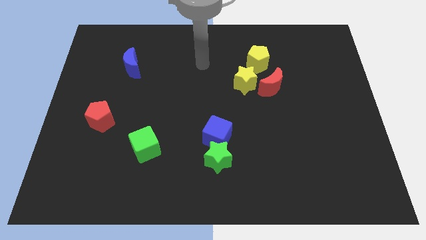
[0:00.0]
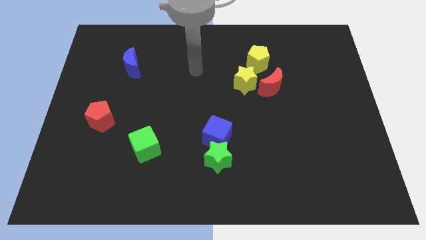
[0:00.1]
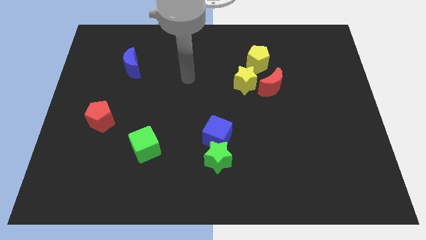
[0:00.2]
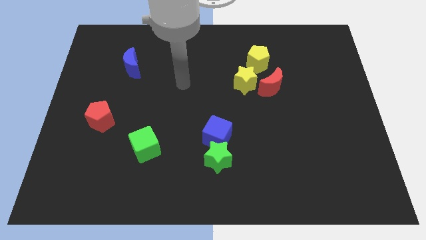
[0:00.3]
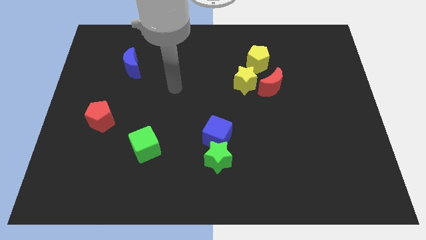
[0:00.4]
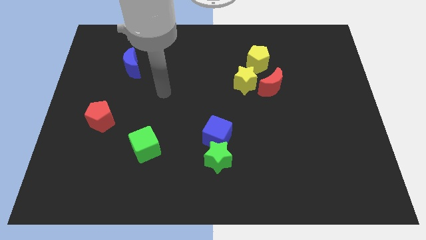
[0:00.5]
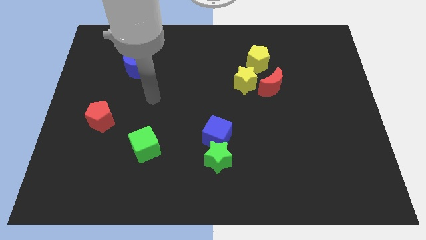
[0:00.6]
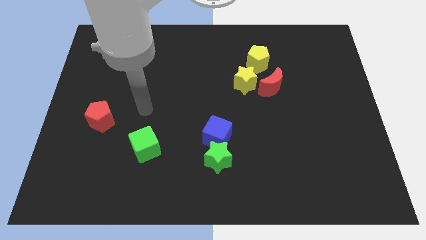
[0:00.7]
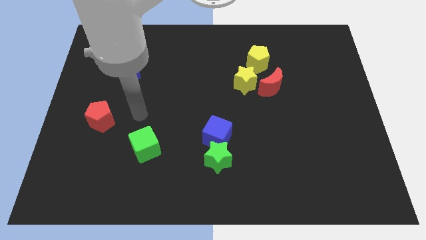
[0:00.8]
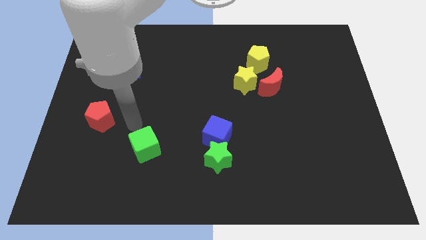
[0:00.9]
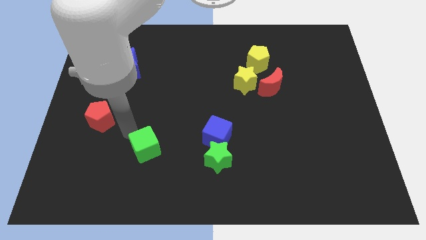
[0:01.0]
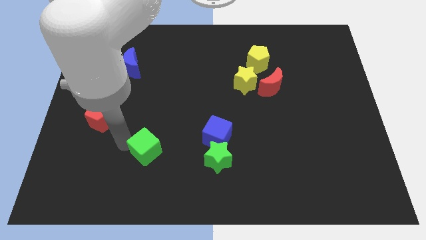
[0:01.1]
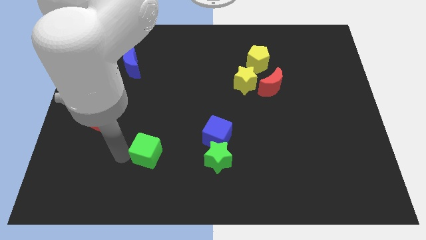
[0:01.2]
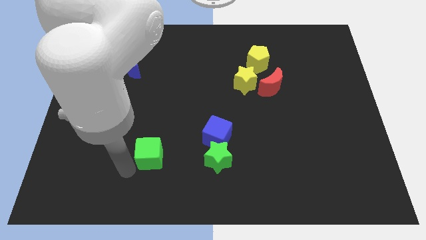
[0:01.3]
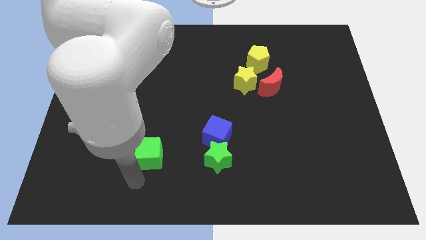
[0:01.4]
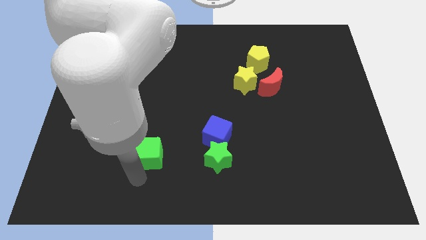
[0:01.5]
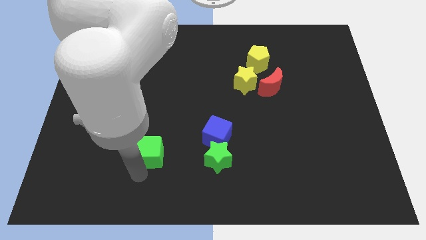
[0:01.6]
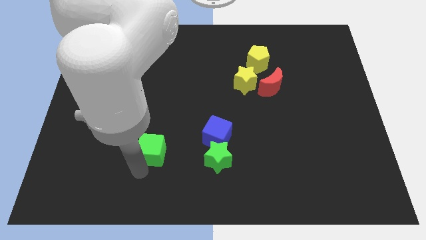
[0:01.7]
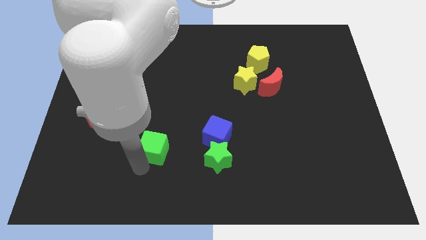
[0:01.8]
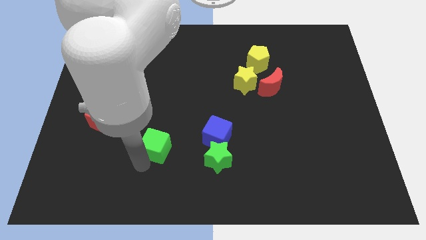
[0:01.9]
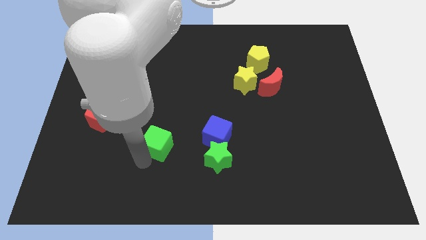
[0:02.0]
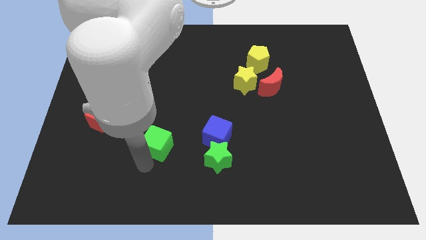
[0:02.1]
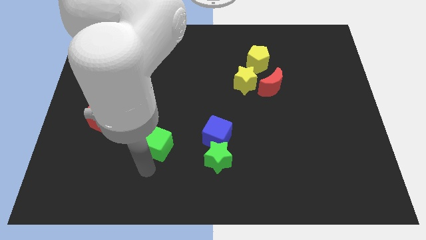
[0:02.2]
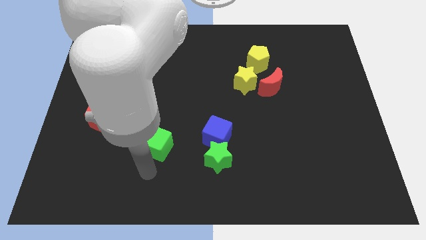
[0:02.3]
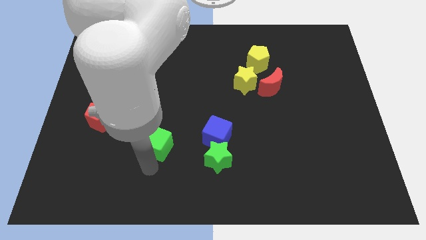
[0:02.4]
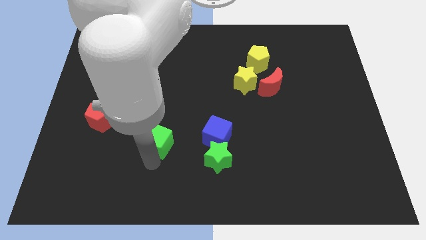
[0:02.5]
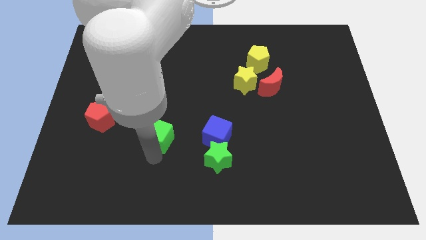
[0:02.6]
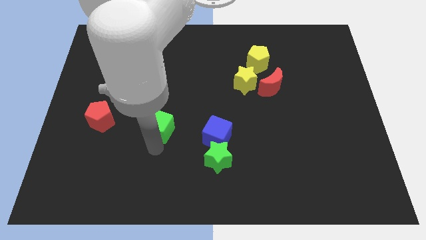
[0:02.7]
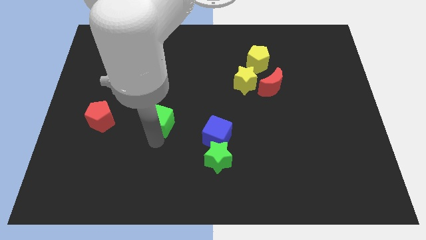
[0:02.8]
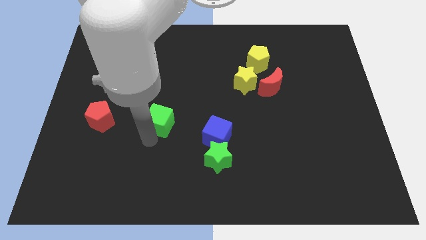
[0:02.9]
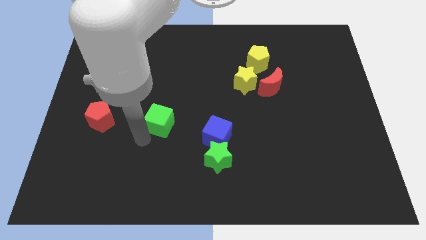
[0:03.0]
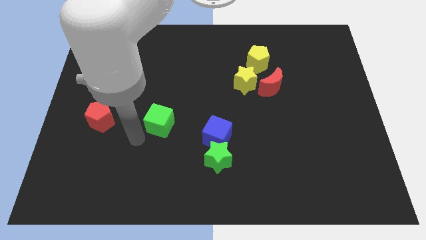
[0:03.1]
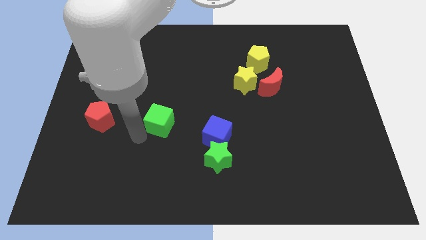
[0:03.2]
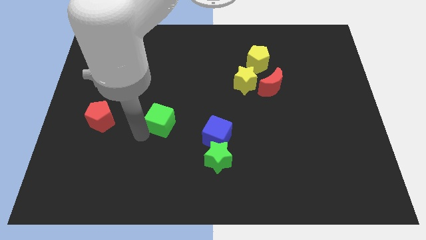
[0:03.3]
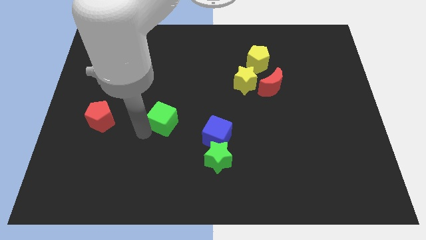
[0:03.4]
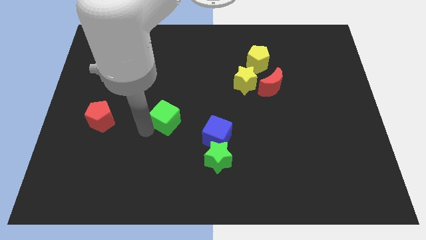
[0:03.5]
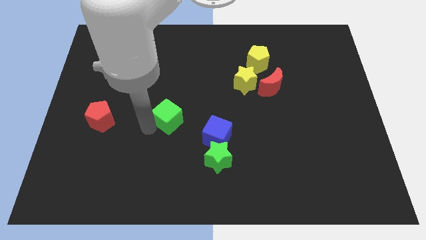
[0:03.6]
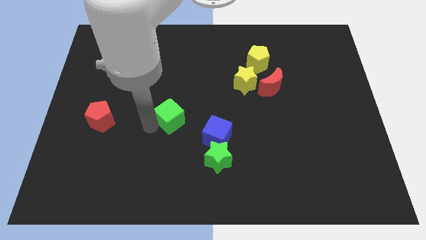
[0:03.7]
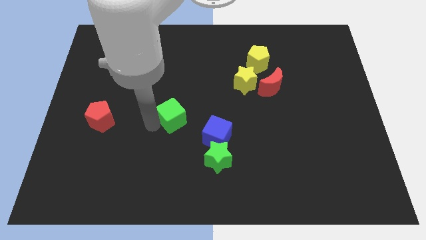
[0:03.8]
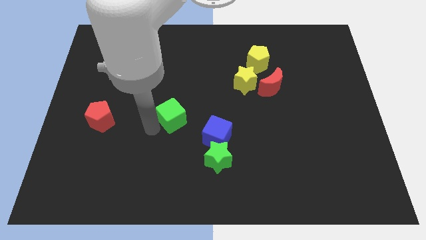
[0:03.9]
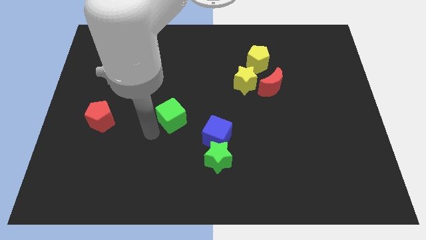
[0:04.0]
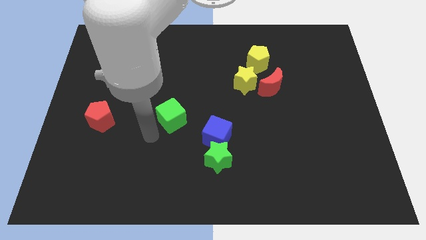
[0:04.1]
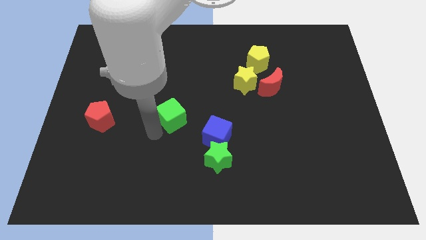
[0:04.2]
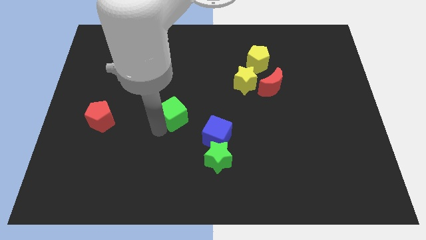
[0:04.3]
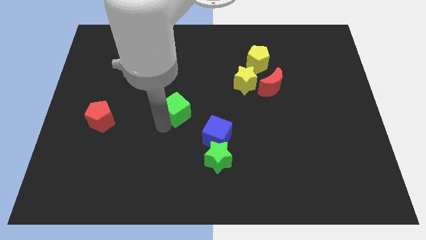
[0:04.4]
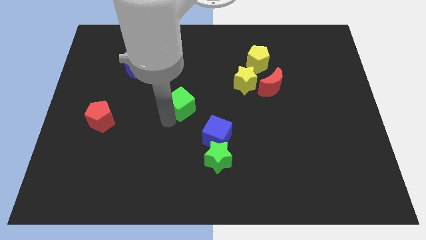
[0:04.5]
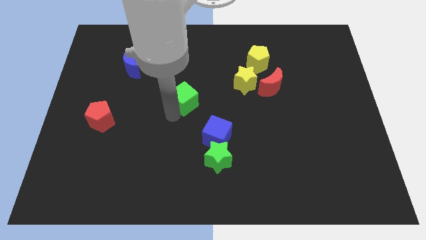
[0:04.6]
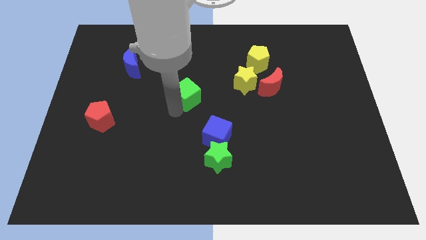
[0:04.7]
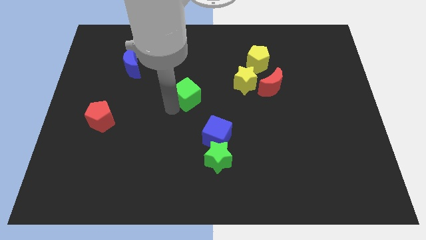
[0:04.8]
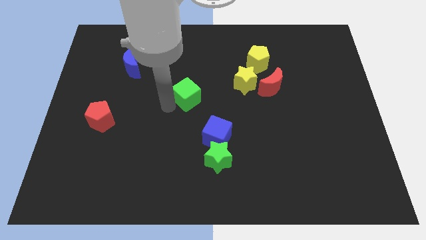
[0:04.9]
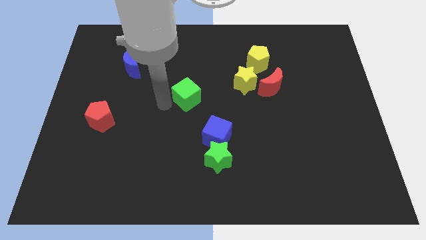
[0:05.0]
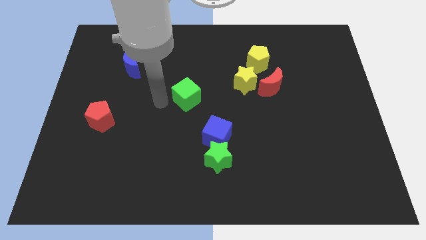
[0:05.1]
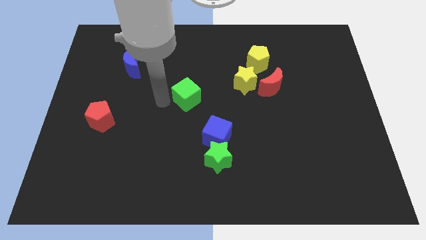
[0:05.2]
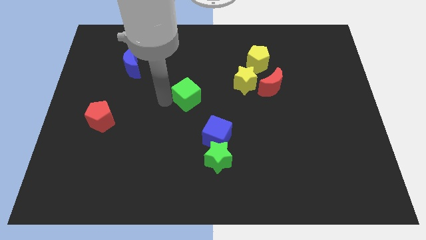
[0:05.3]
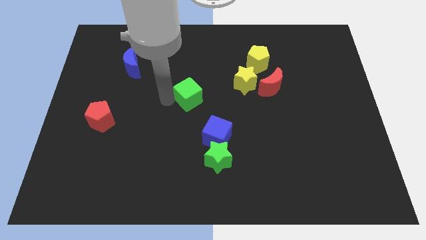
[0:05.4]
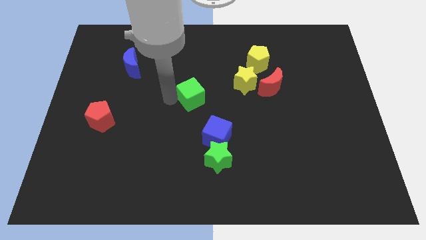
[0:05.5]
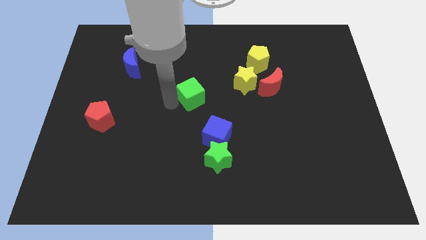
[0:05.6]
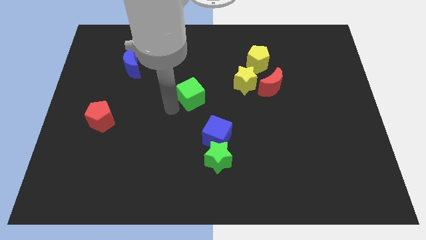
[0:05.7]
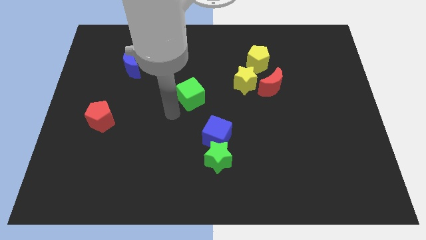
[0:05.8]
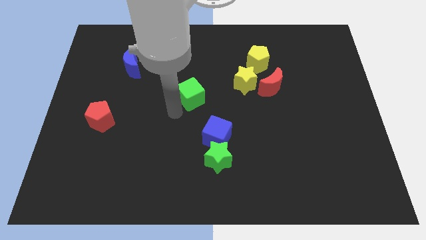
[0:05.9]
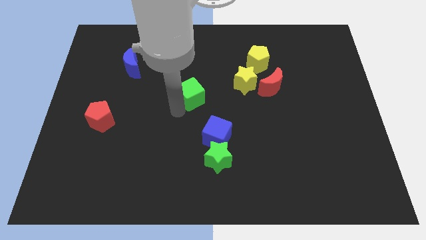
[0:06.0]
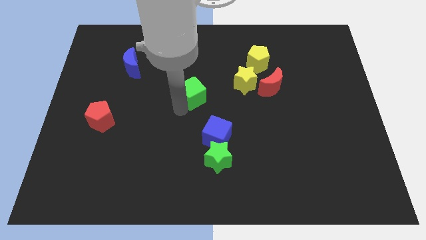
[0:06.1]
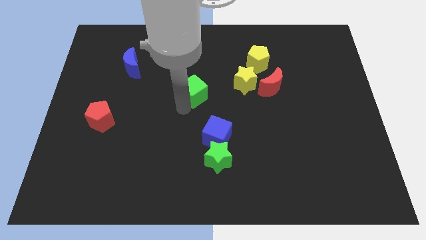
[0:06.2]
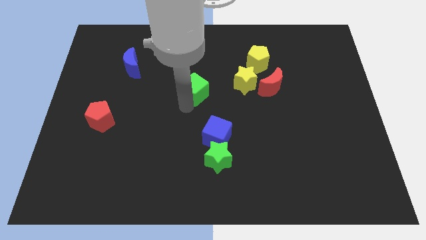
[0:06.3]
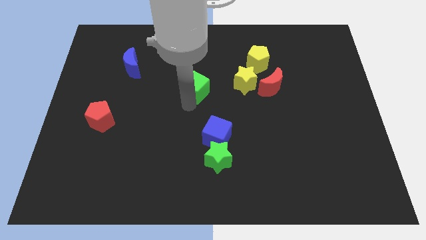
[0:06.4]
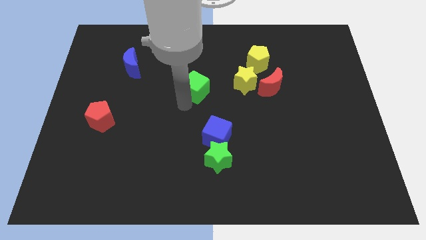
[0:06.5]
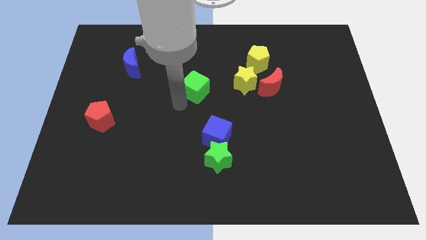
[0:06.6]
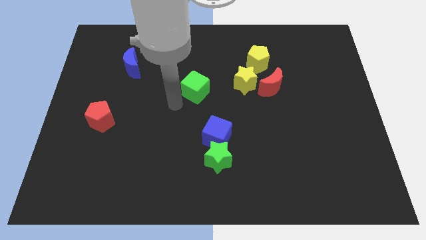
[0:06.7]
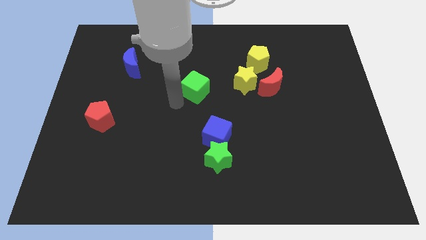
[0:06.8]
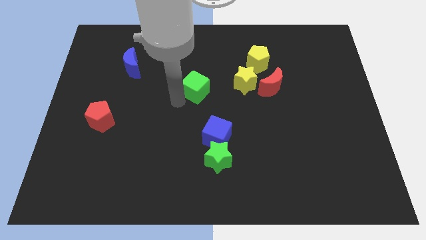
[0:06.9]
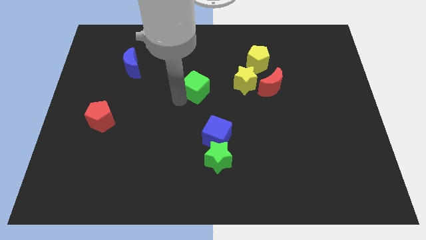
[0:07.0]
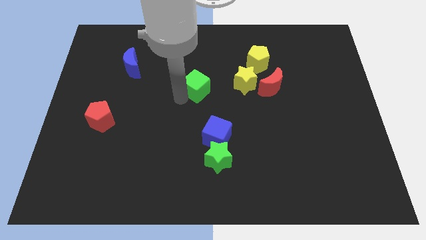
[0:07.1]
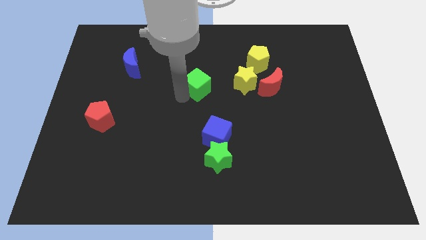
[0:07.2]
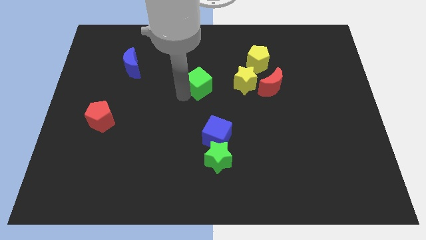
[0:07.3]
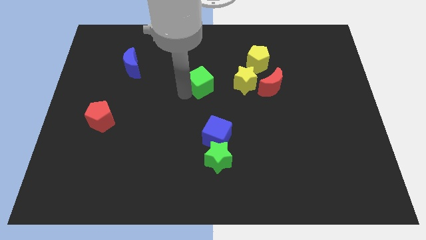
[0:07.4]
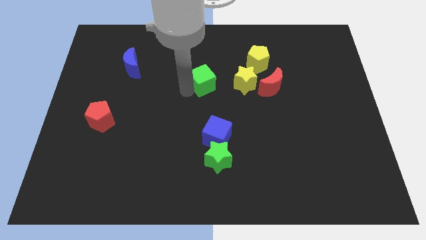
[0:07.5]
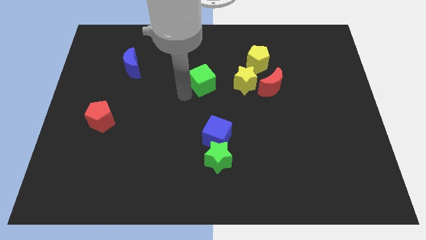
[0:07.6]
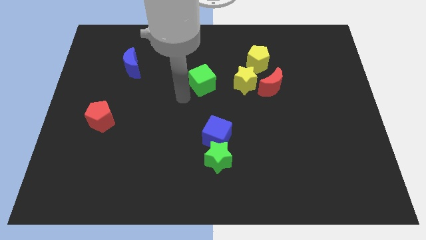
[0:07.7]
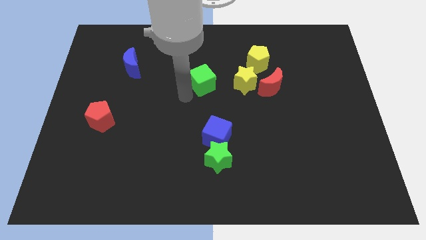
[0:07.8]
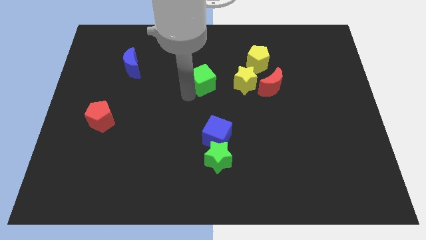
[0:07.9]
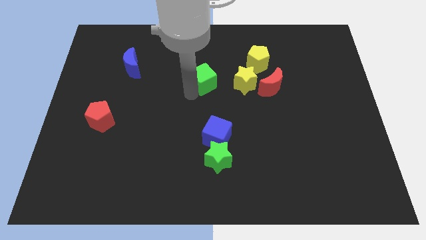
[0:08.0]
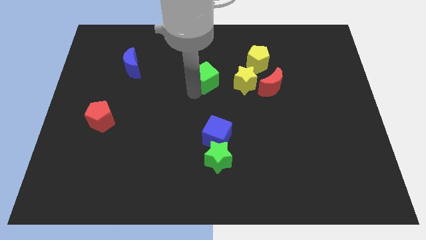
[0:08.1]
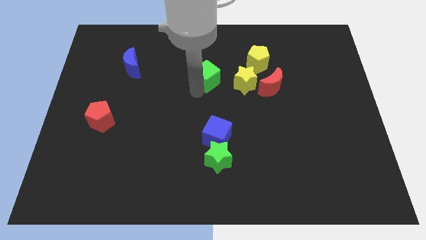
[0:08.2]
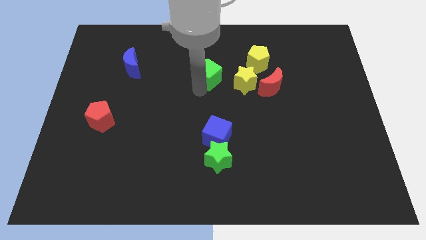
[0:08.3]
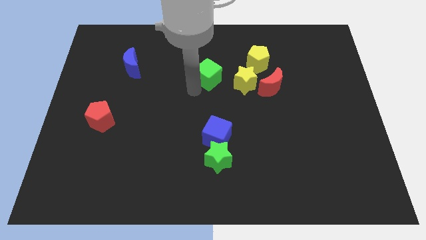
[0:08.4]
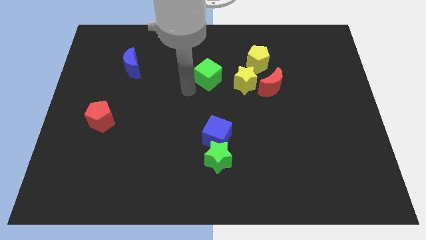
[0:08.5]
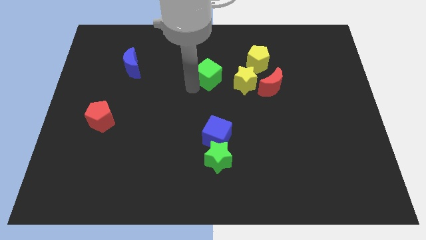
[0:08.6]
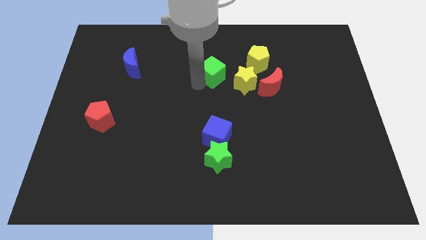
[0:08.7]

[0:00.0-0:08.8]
slide the green cube diagonally up and to the left of the yellow star
